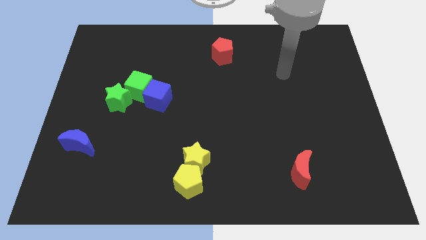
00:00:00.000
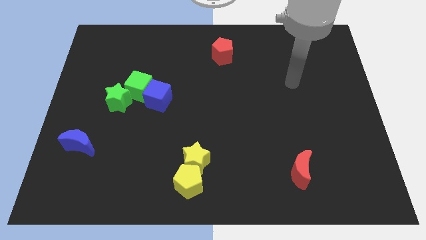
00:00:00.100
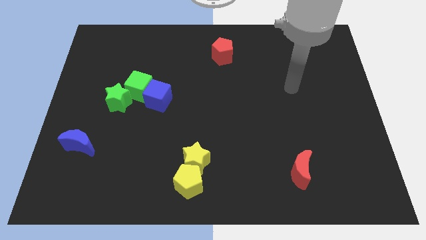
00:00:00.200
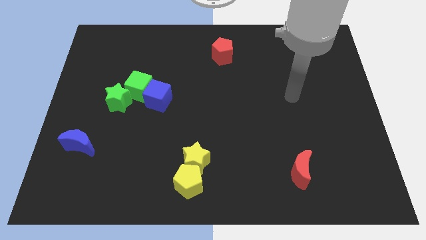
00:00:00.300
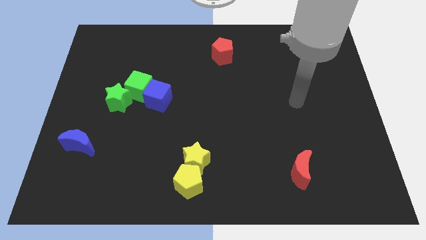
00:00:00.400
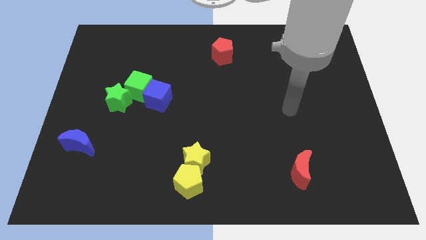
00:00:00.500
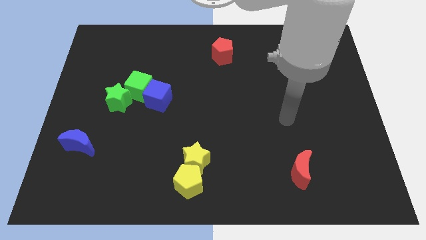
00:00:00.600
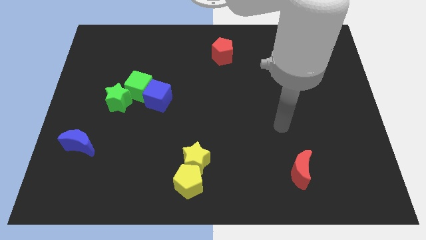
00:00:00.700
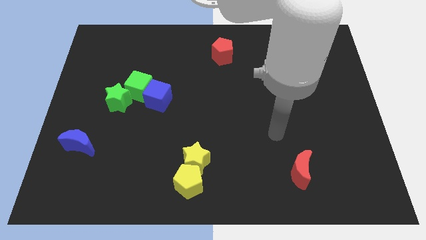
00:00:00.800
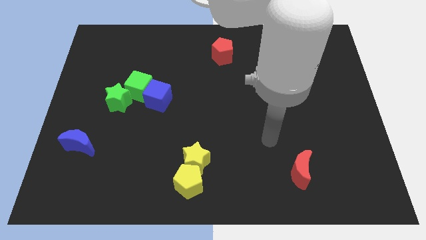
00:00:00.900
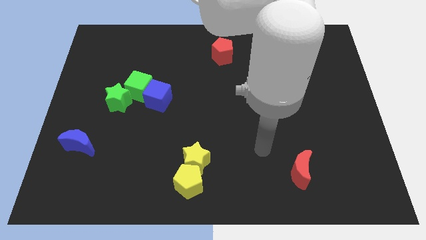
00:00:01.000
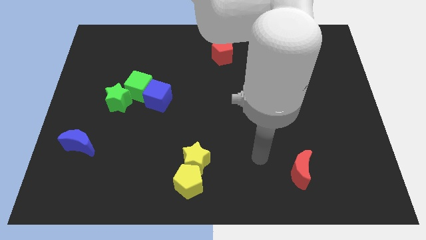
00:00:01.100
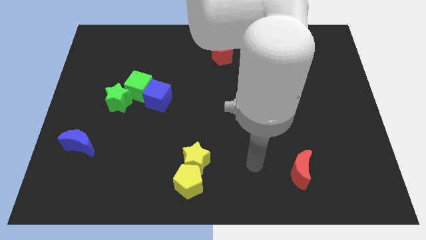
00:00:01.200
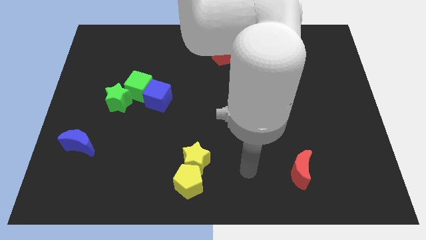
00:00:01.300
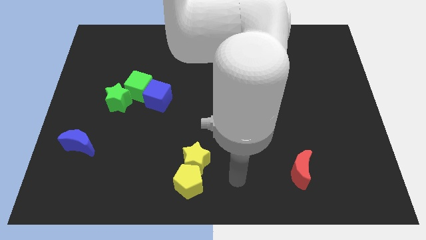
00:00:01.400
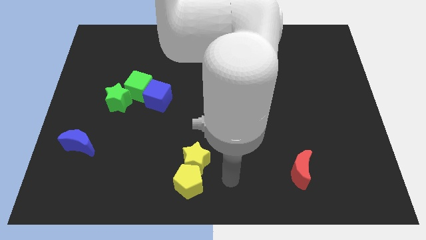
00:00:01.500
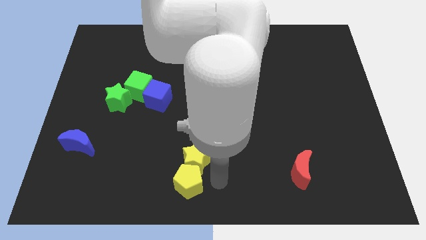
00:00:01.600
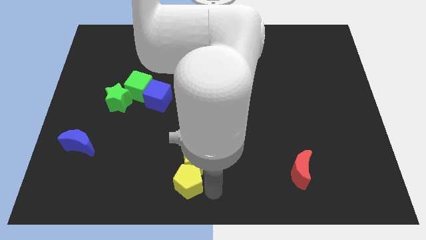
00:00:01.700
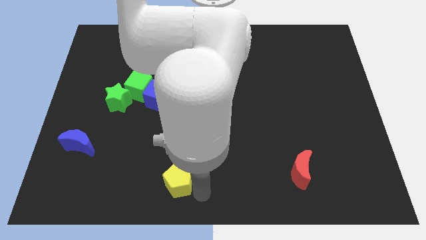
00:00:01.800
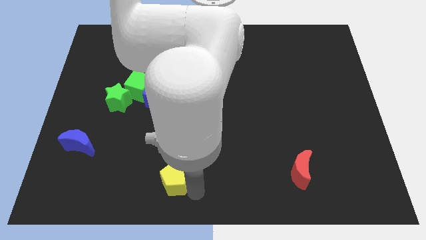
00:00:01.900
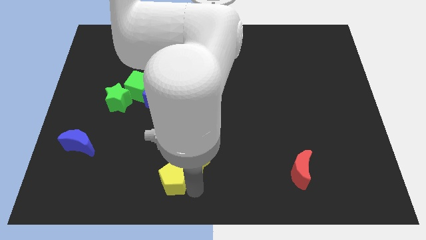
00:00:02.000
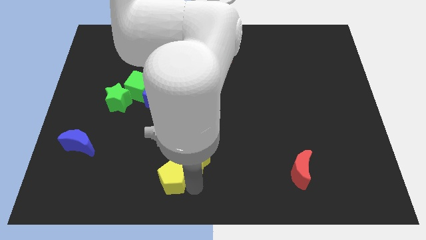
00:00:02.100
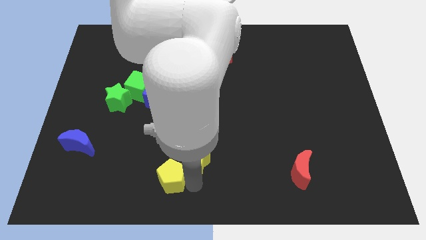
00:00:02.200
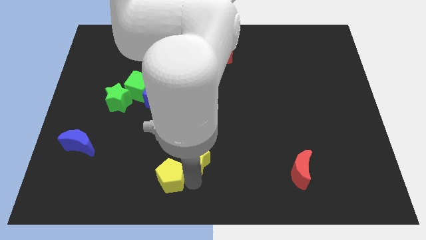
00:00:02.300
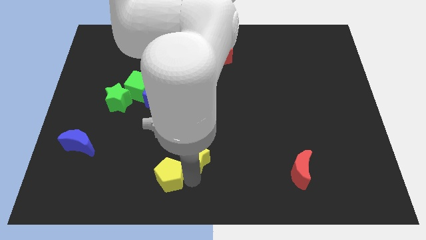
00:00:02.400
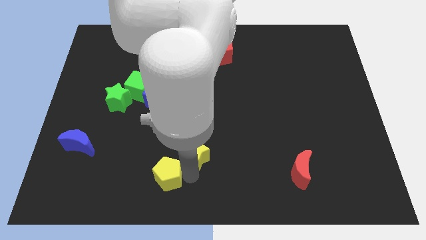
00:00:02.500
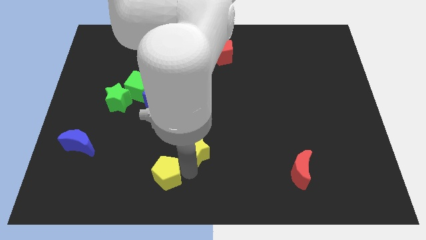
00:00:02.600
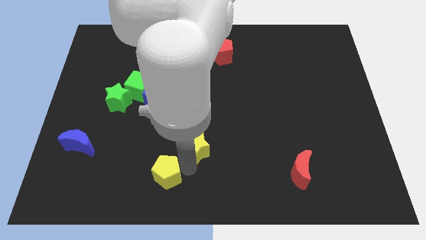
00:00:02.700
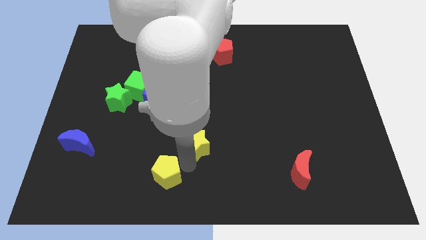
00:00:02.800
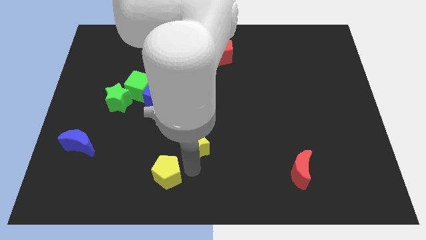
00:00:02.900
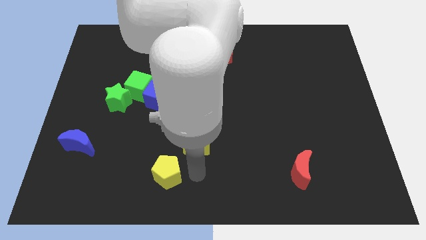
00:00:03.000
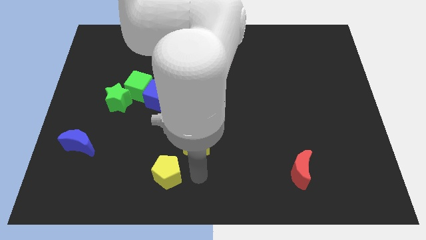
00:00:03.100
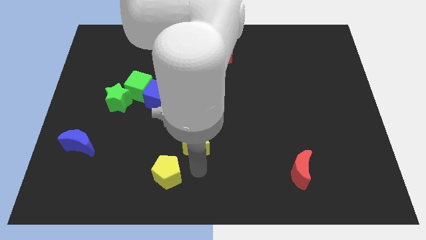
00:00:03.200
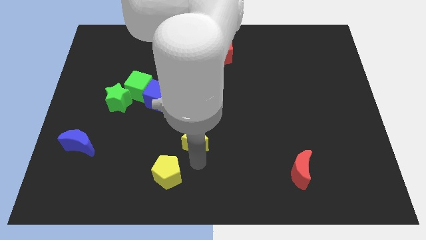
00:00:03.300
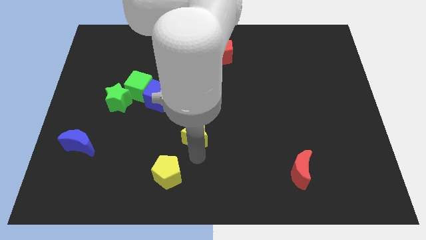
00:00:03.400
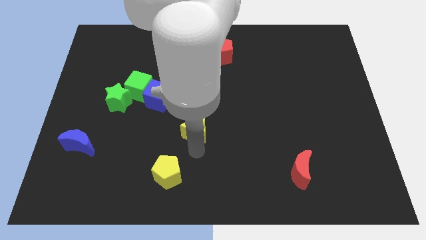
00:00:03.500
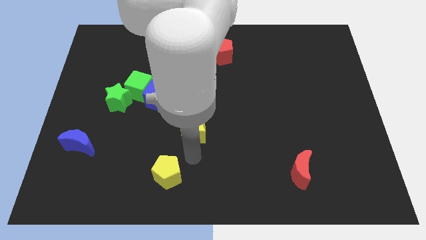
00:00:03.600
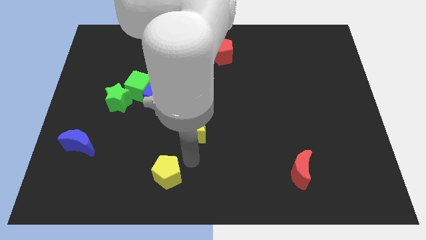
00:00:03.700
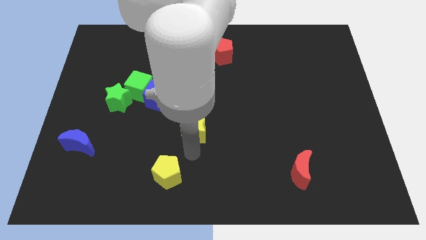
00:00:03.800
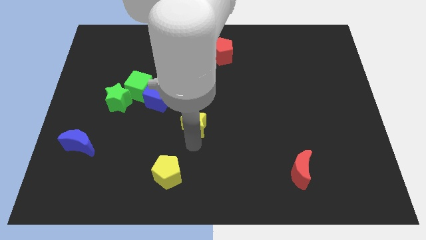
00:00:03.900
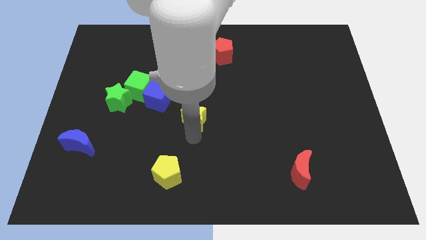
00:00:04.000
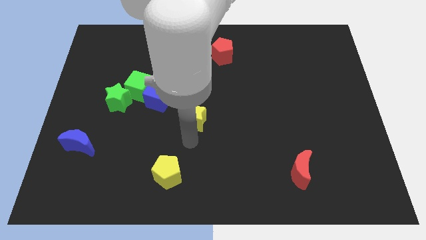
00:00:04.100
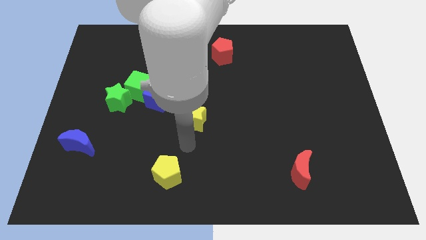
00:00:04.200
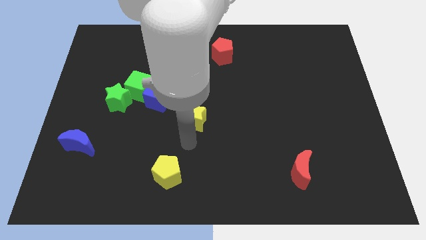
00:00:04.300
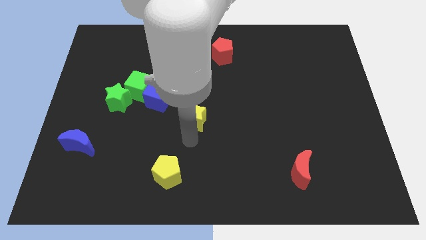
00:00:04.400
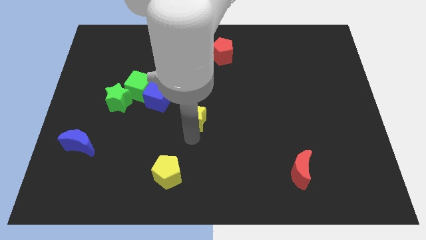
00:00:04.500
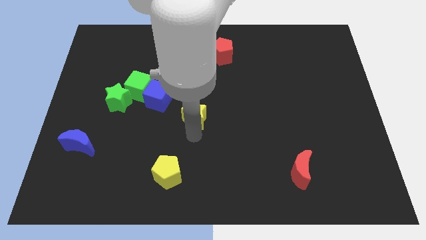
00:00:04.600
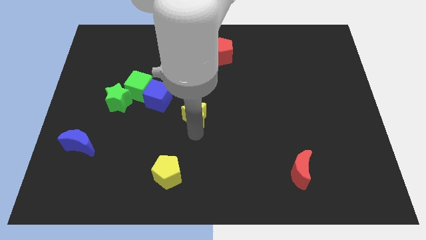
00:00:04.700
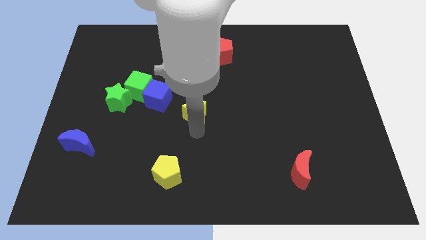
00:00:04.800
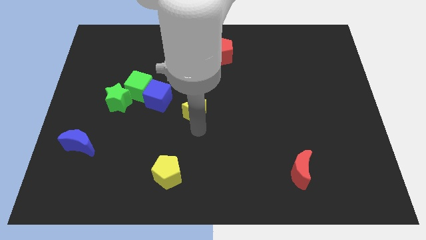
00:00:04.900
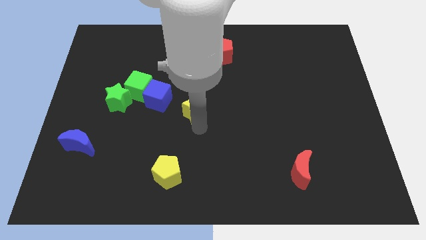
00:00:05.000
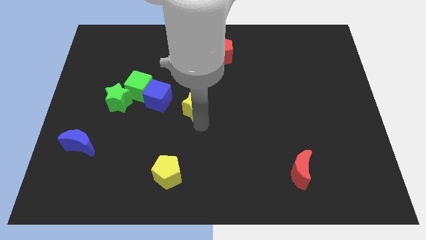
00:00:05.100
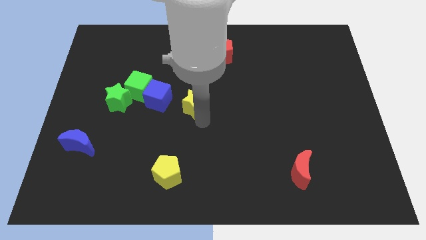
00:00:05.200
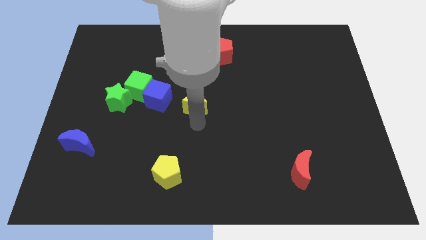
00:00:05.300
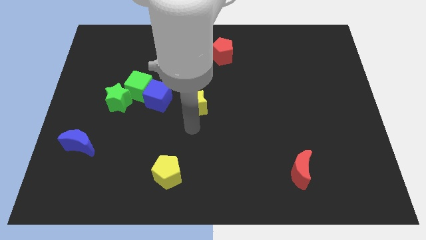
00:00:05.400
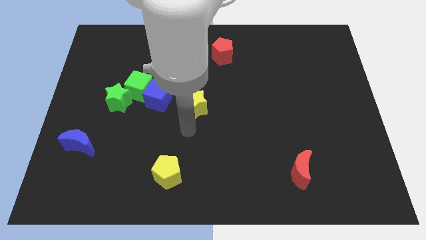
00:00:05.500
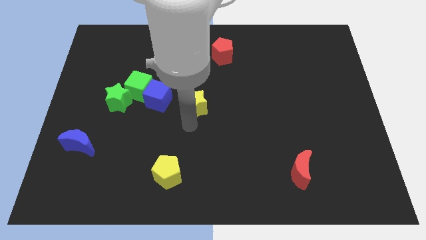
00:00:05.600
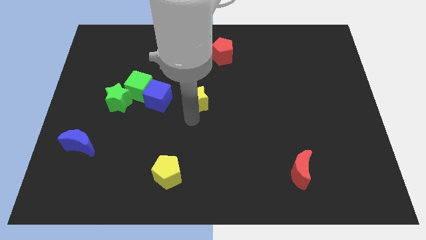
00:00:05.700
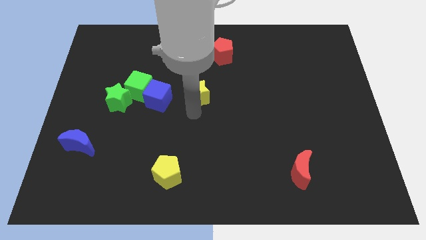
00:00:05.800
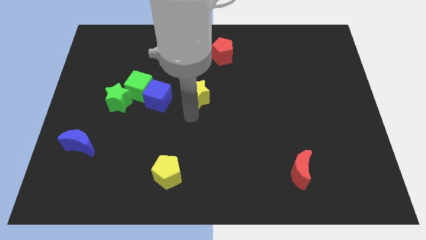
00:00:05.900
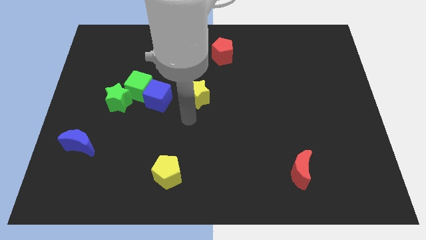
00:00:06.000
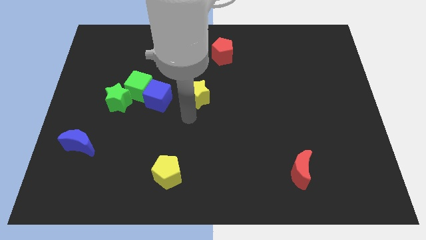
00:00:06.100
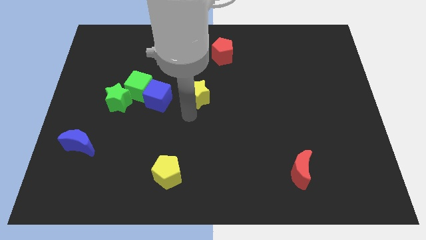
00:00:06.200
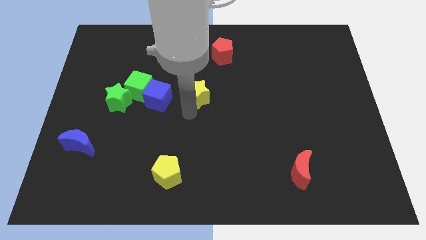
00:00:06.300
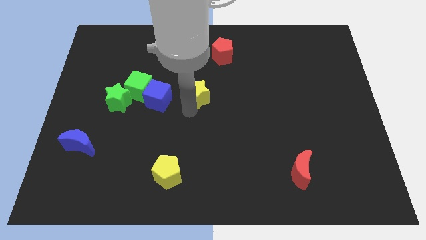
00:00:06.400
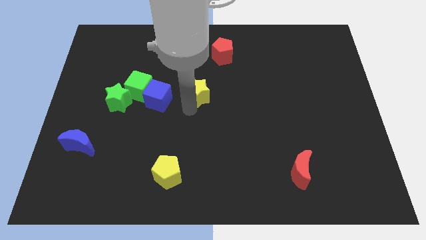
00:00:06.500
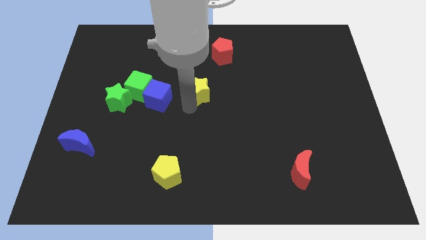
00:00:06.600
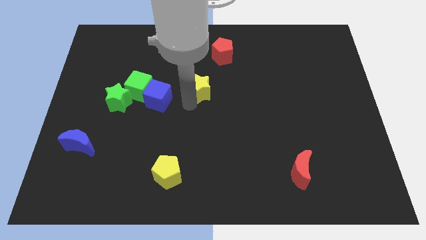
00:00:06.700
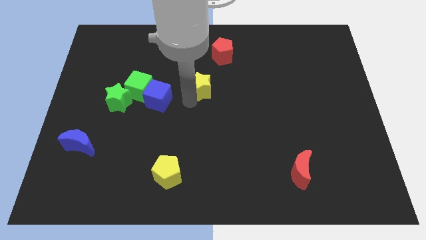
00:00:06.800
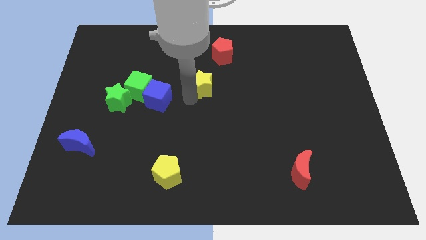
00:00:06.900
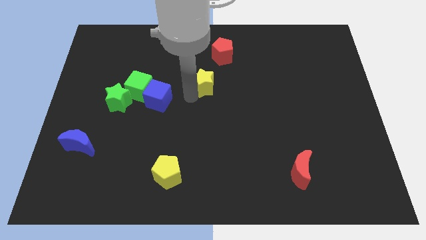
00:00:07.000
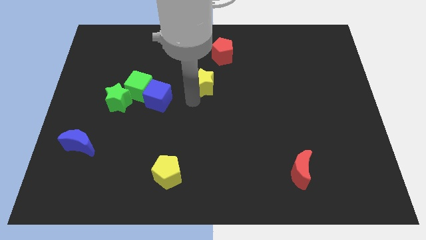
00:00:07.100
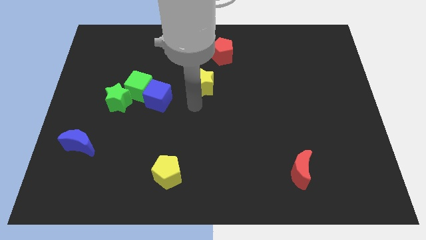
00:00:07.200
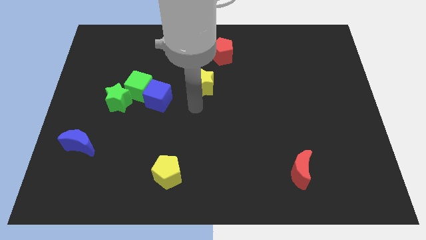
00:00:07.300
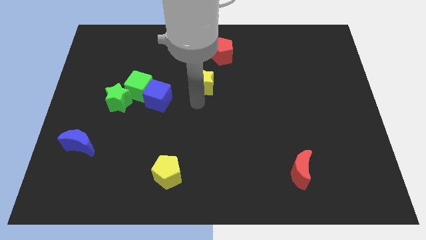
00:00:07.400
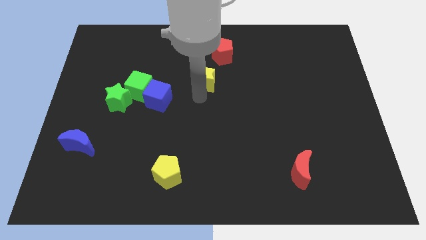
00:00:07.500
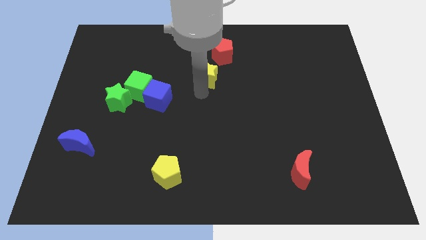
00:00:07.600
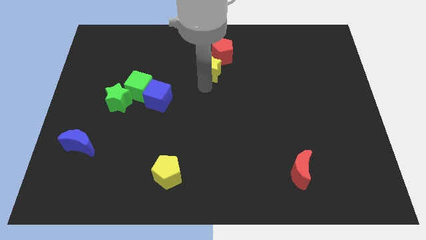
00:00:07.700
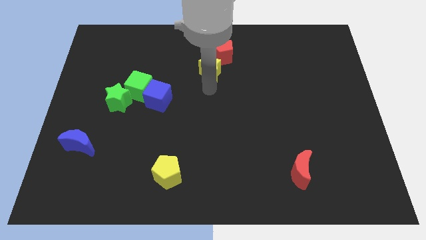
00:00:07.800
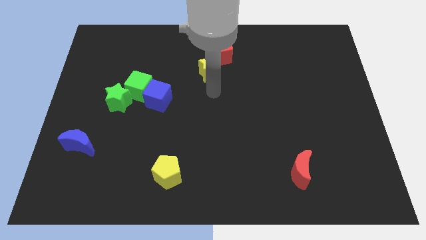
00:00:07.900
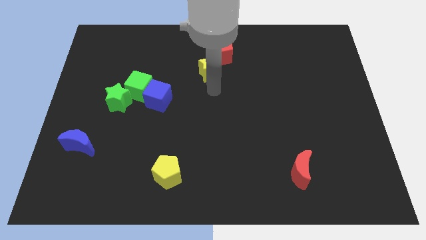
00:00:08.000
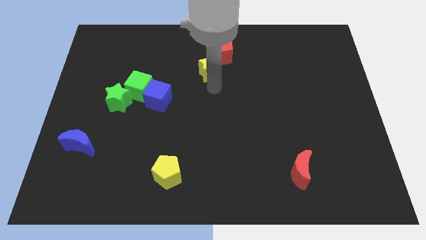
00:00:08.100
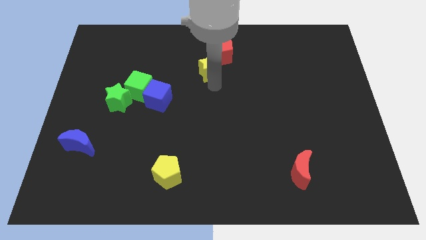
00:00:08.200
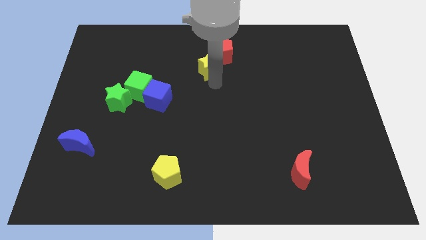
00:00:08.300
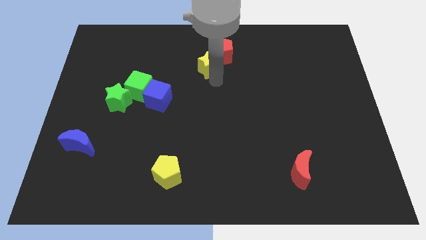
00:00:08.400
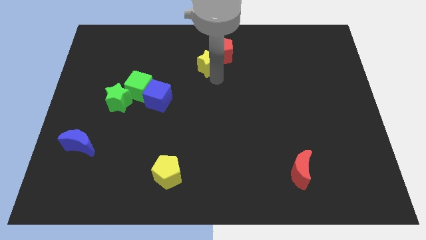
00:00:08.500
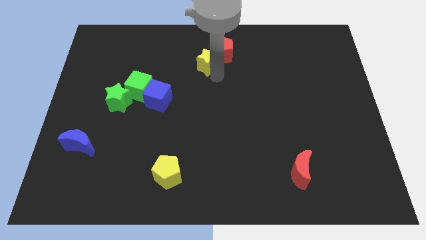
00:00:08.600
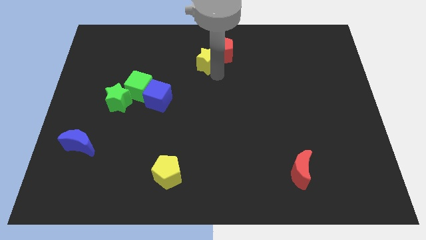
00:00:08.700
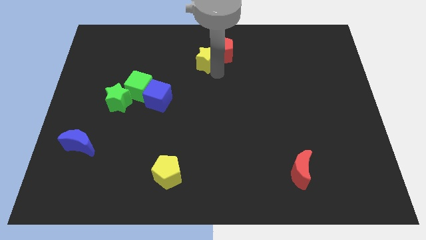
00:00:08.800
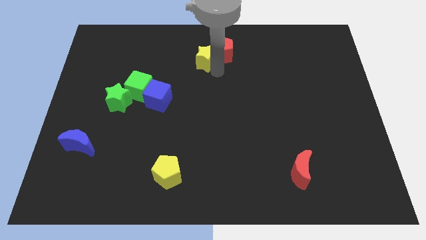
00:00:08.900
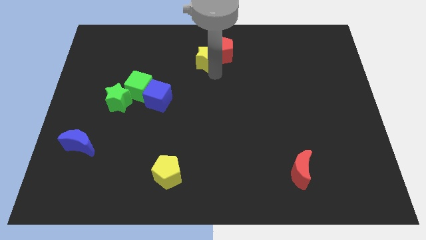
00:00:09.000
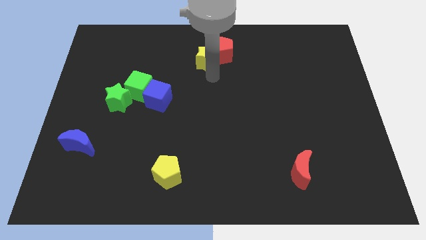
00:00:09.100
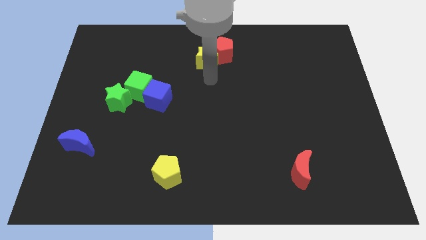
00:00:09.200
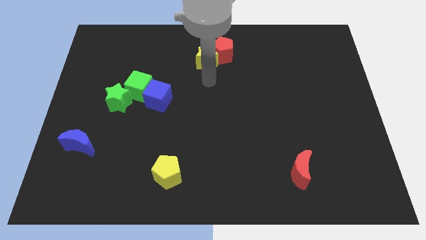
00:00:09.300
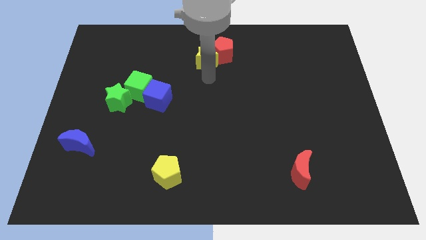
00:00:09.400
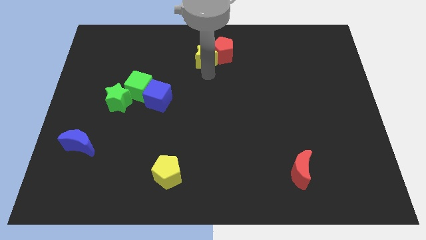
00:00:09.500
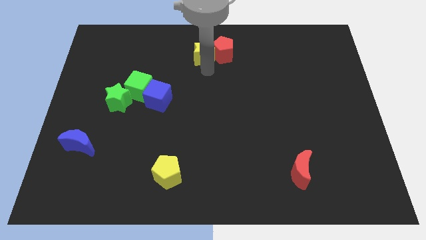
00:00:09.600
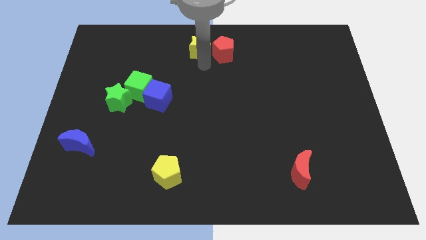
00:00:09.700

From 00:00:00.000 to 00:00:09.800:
push the yellow star to the towards your base
